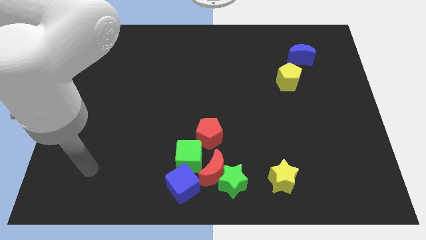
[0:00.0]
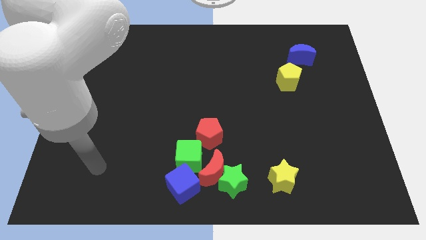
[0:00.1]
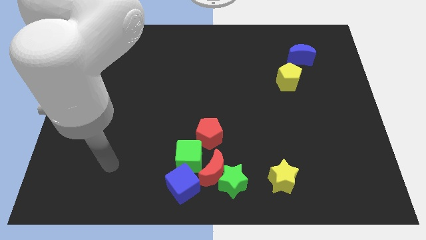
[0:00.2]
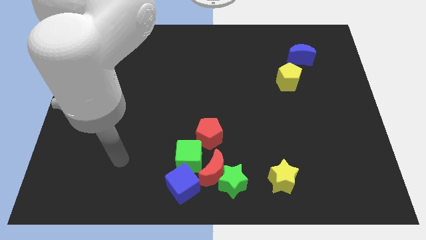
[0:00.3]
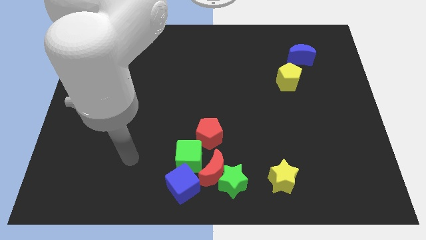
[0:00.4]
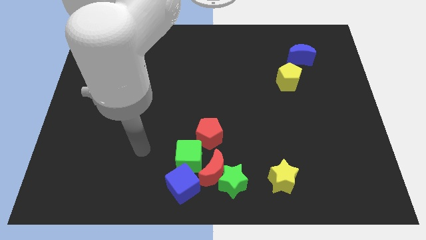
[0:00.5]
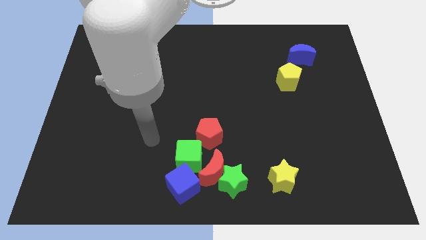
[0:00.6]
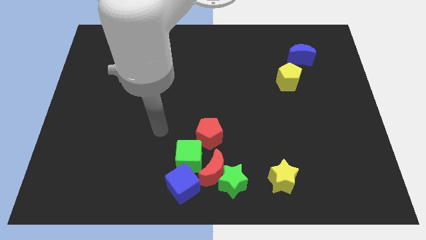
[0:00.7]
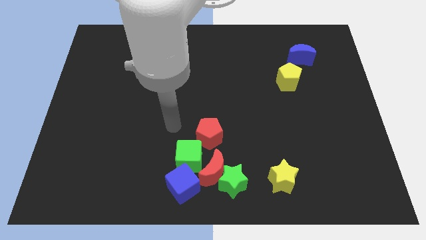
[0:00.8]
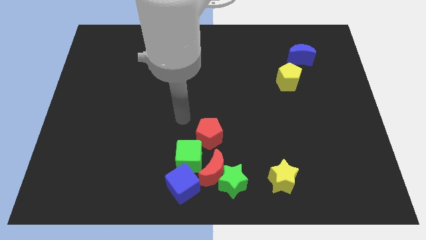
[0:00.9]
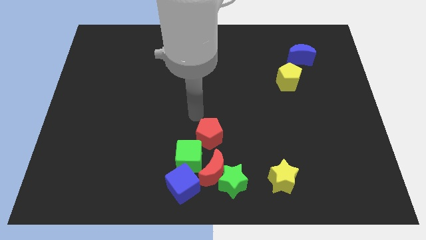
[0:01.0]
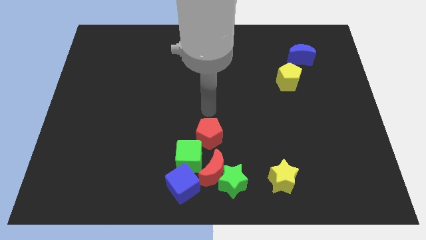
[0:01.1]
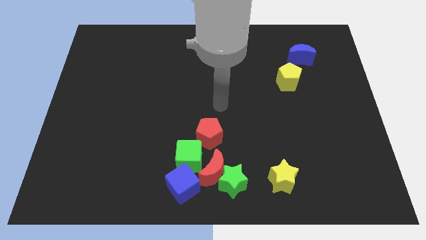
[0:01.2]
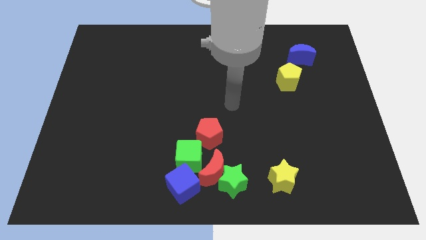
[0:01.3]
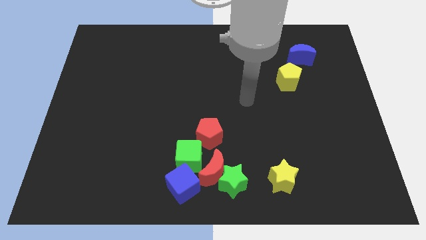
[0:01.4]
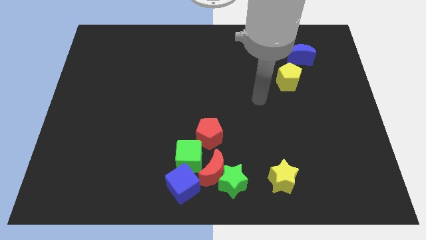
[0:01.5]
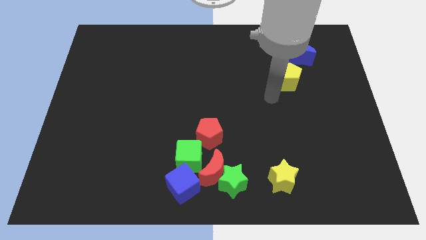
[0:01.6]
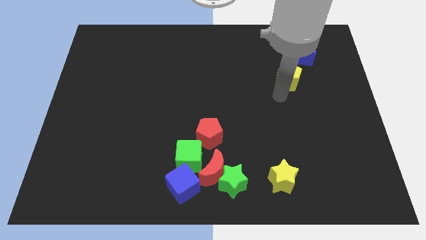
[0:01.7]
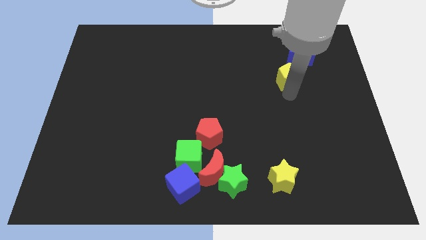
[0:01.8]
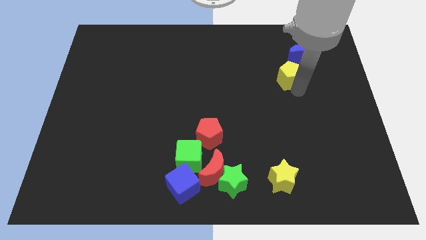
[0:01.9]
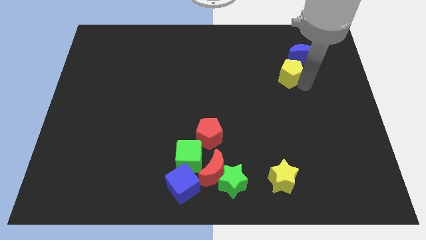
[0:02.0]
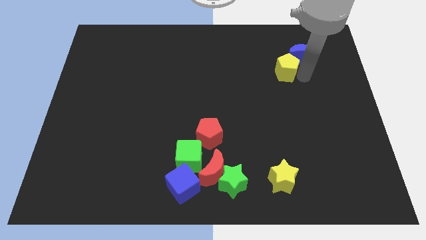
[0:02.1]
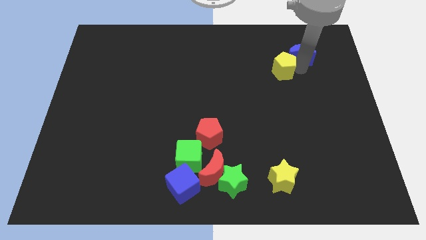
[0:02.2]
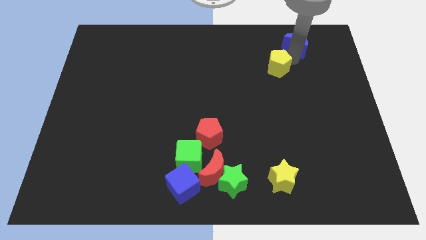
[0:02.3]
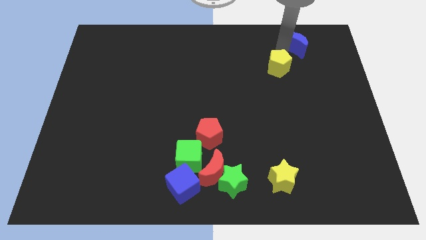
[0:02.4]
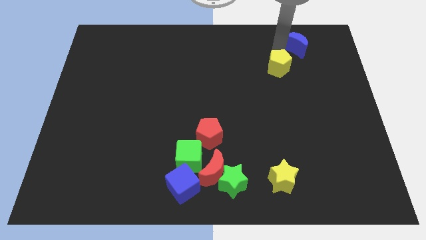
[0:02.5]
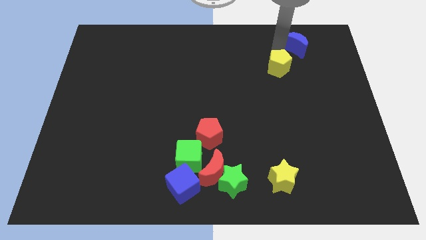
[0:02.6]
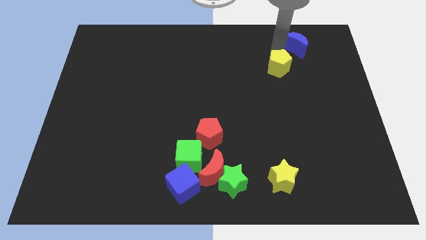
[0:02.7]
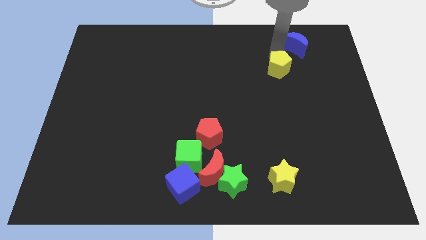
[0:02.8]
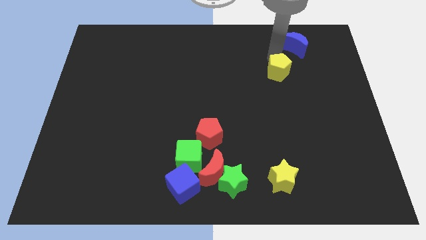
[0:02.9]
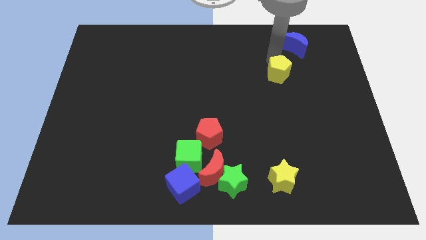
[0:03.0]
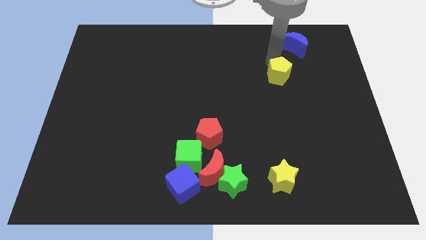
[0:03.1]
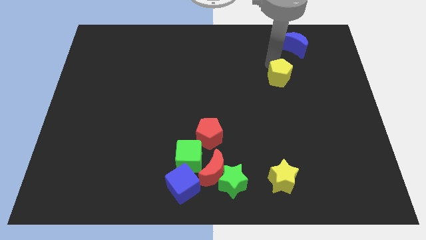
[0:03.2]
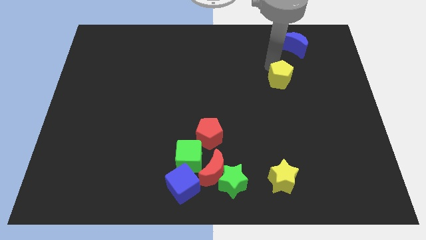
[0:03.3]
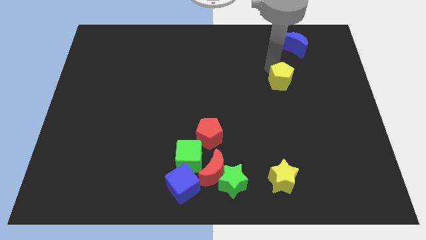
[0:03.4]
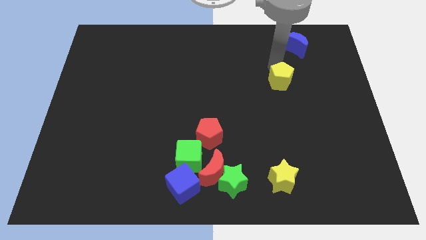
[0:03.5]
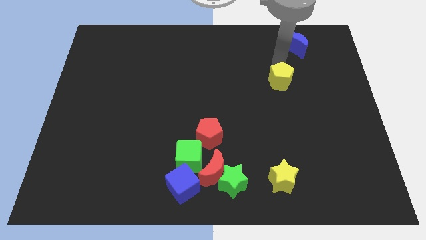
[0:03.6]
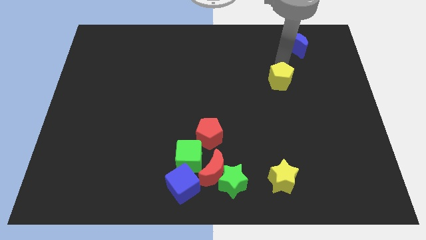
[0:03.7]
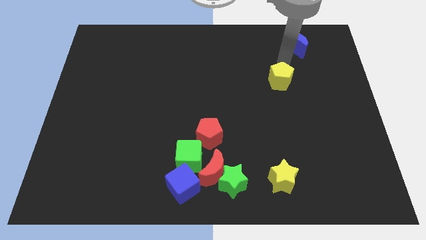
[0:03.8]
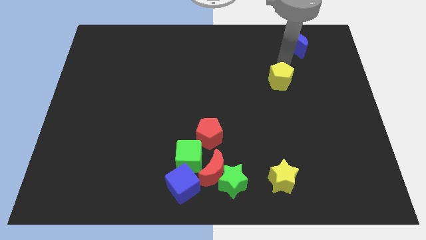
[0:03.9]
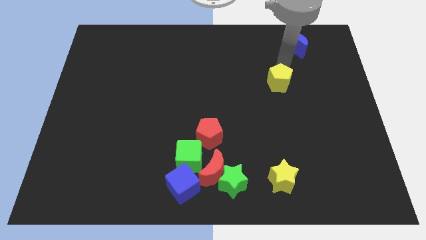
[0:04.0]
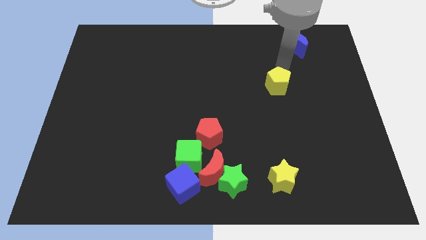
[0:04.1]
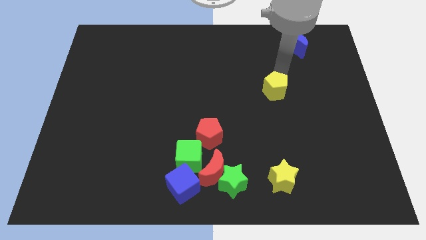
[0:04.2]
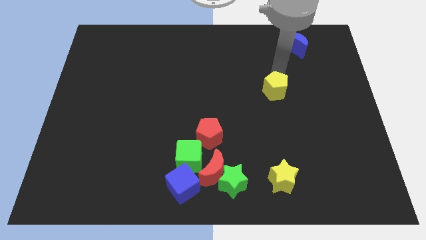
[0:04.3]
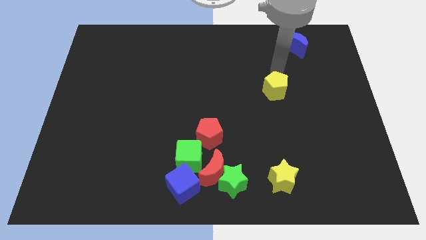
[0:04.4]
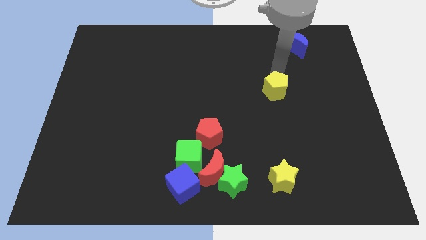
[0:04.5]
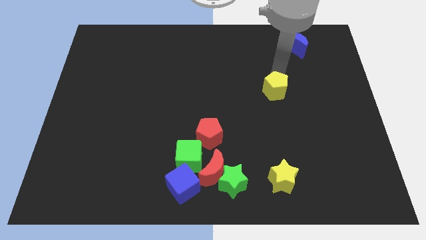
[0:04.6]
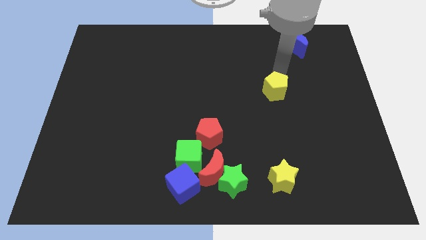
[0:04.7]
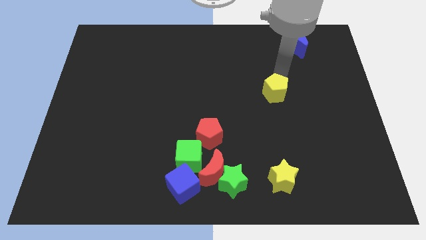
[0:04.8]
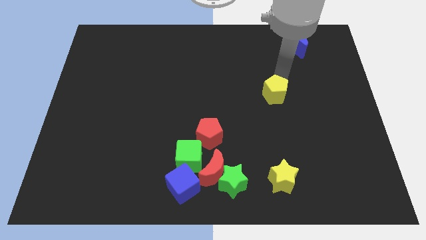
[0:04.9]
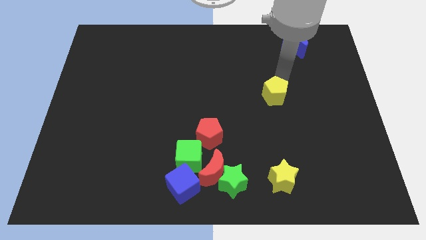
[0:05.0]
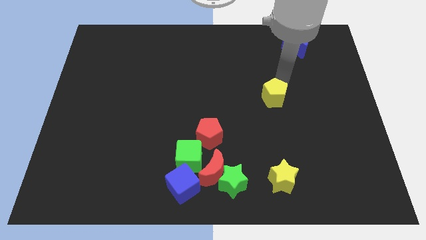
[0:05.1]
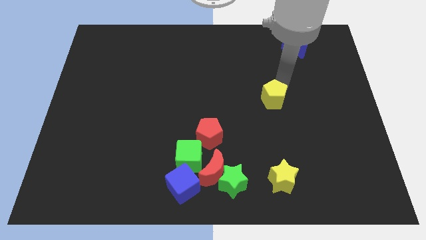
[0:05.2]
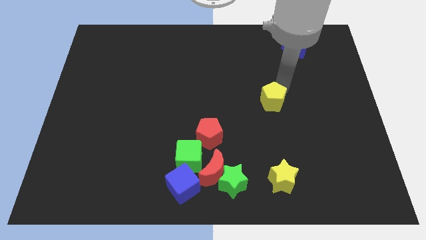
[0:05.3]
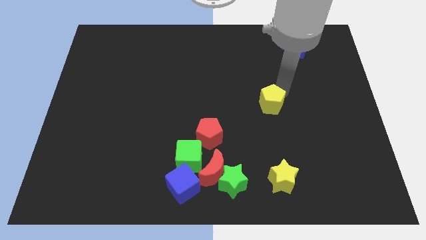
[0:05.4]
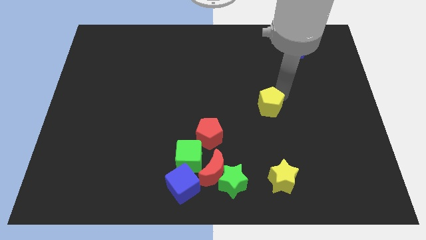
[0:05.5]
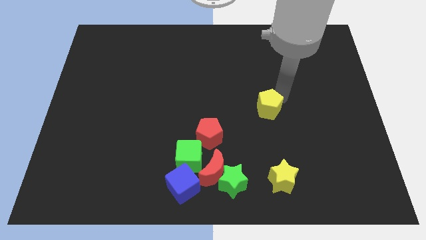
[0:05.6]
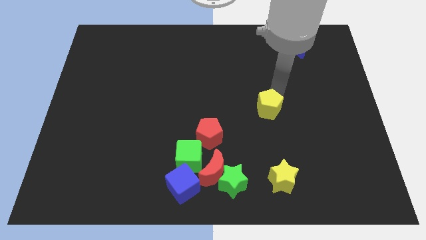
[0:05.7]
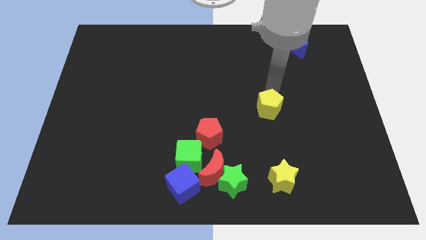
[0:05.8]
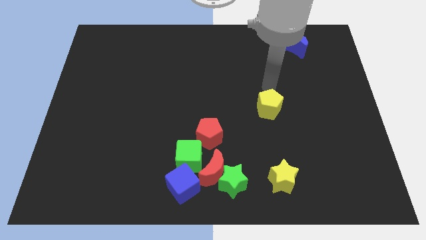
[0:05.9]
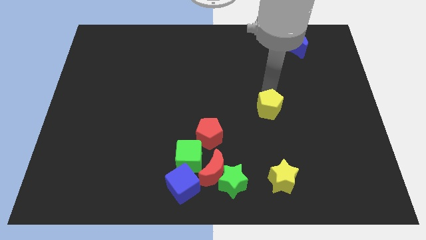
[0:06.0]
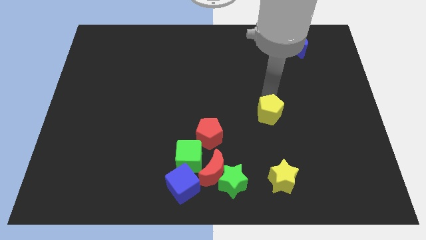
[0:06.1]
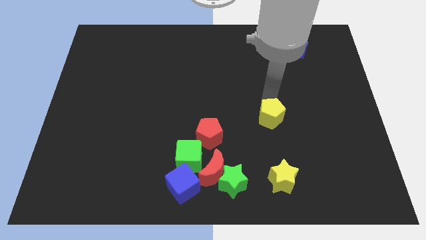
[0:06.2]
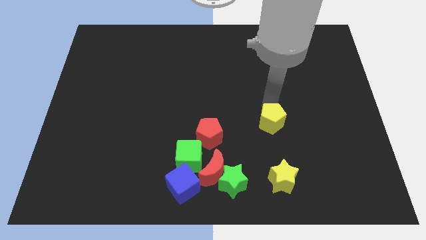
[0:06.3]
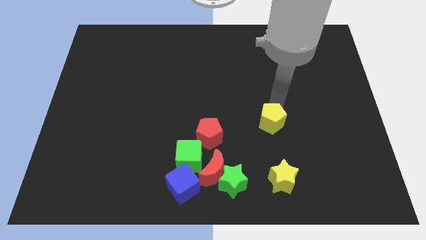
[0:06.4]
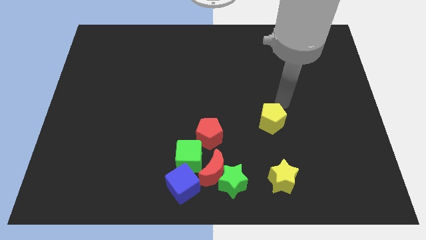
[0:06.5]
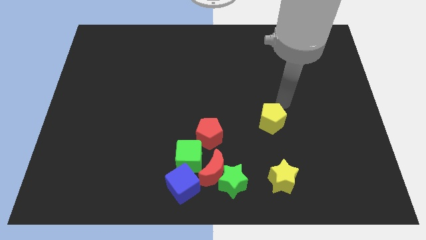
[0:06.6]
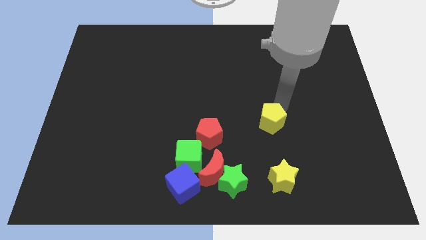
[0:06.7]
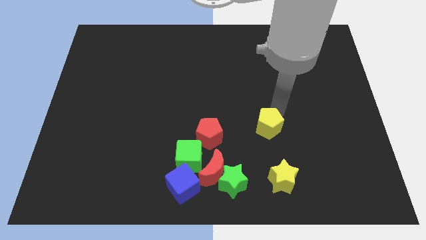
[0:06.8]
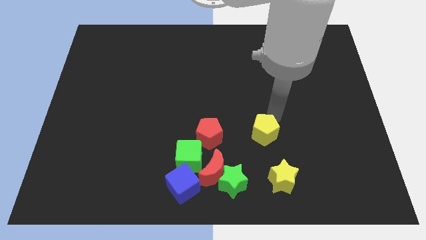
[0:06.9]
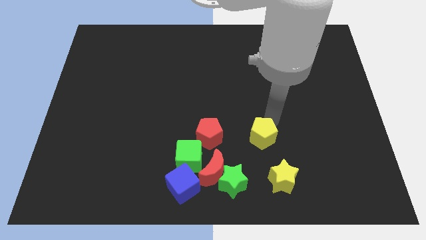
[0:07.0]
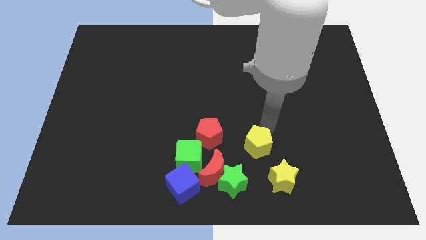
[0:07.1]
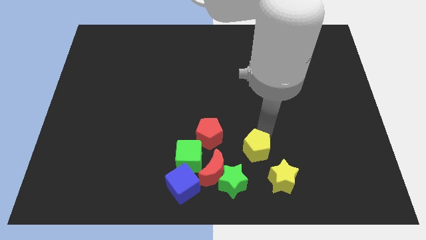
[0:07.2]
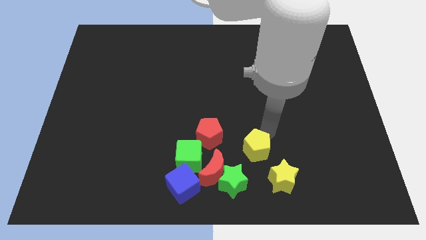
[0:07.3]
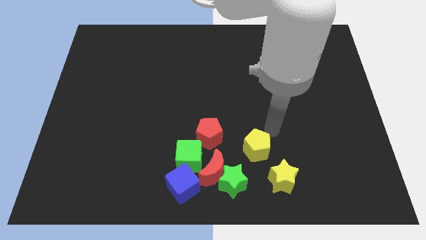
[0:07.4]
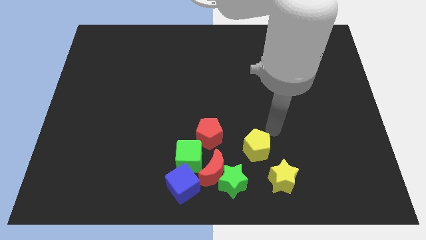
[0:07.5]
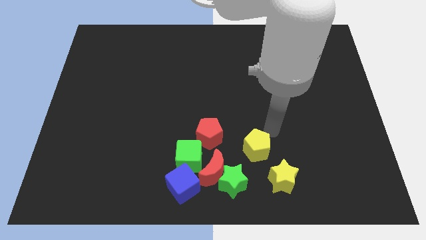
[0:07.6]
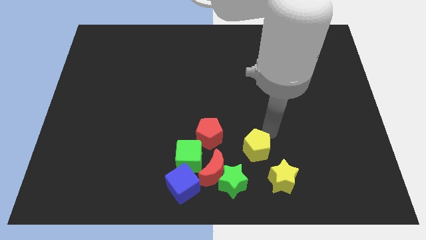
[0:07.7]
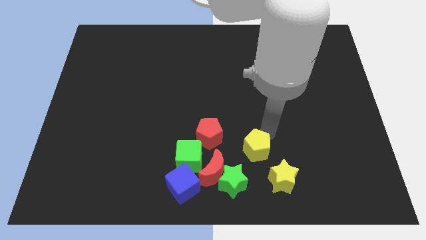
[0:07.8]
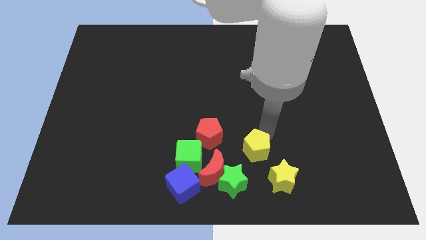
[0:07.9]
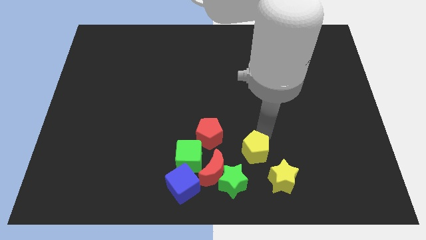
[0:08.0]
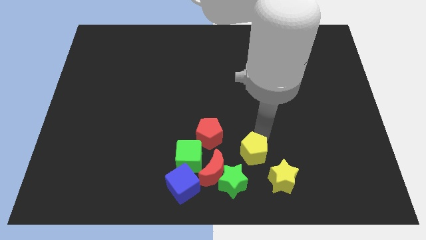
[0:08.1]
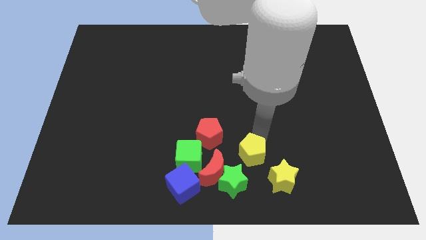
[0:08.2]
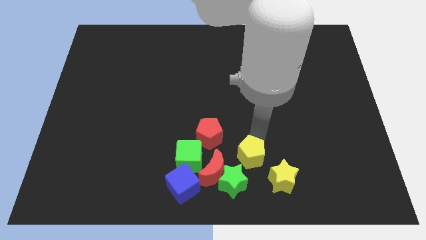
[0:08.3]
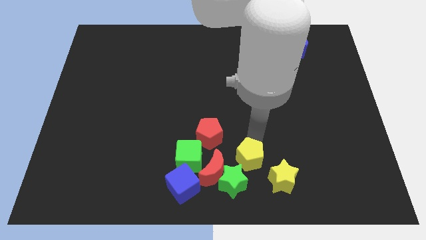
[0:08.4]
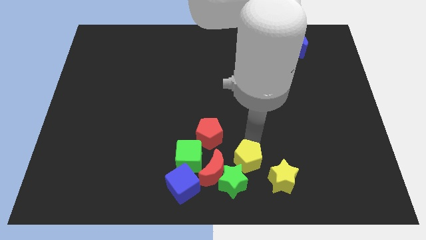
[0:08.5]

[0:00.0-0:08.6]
slide the yellow pentagon towards the green star
